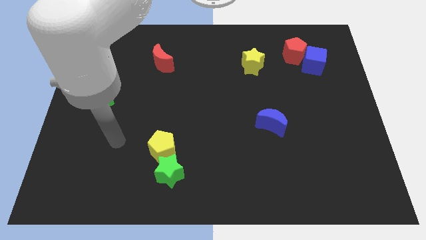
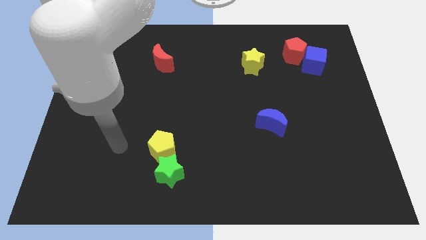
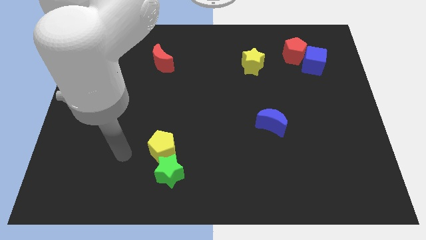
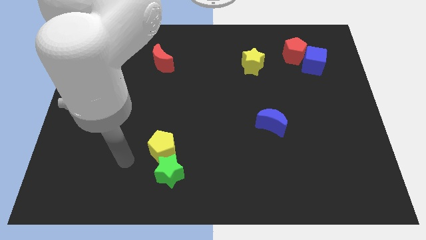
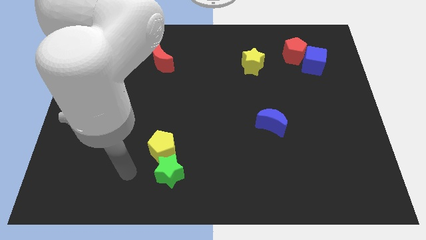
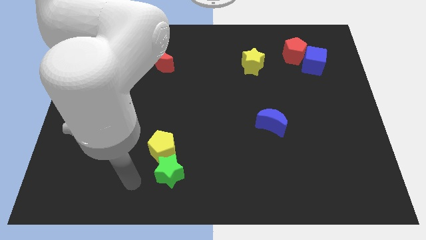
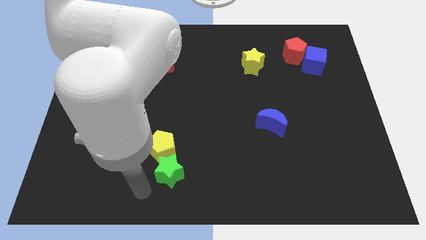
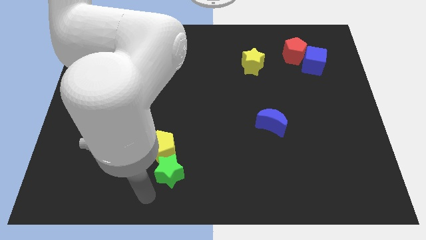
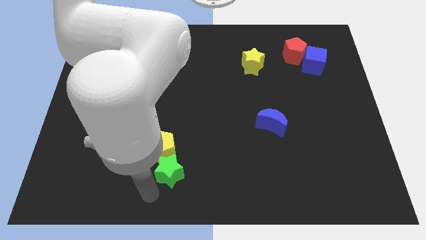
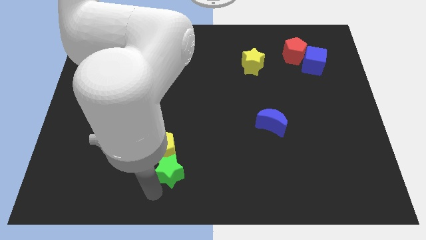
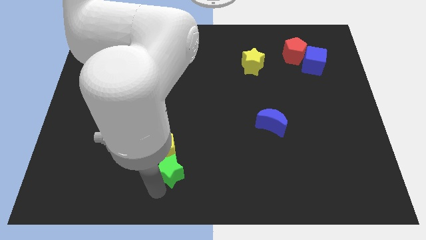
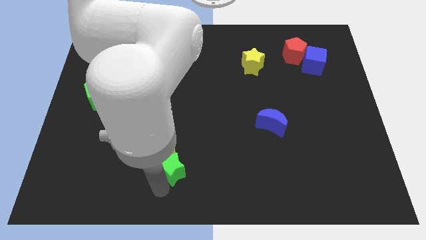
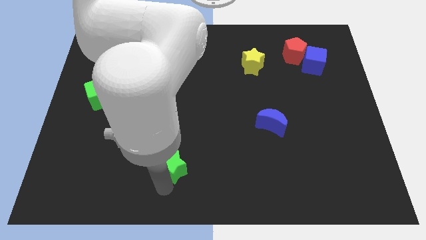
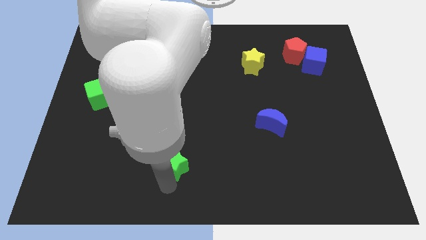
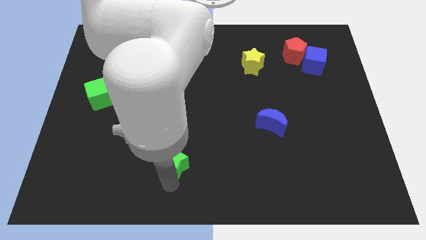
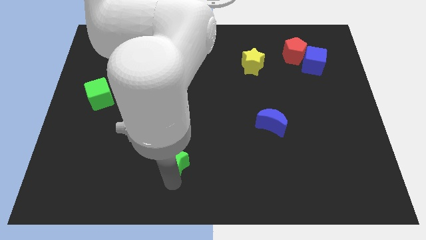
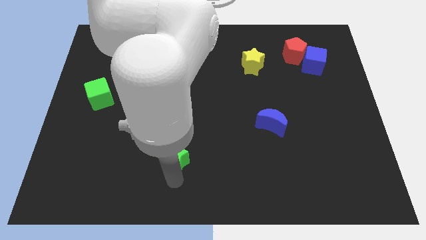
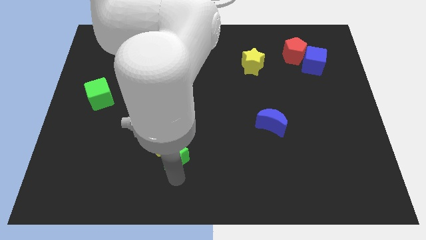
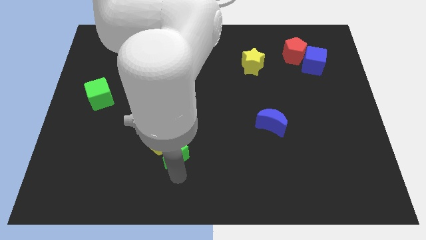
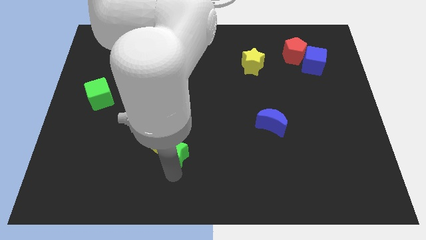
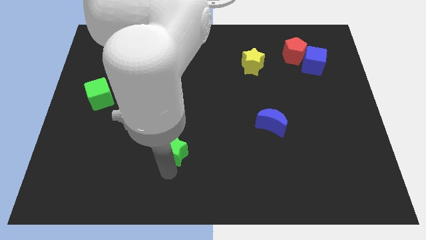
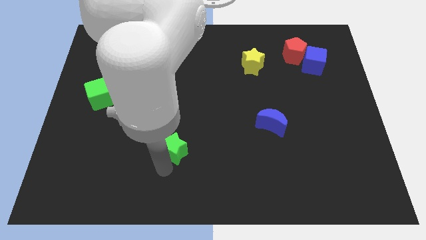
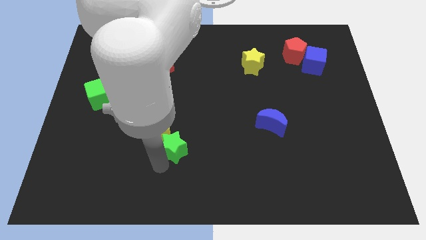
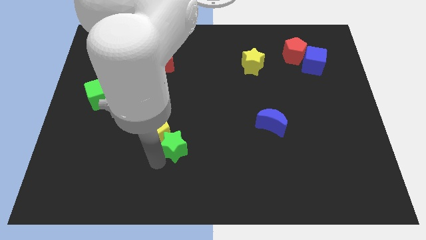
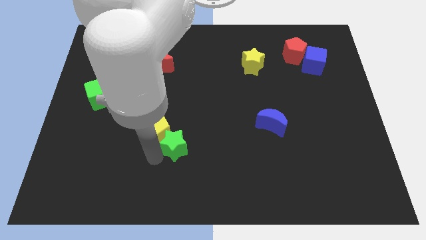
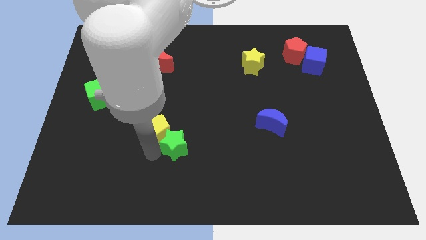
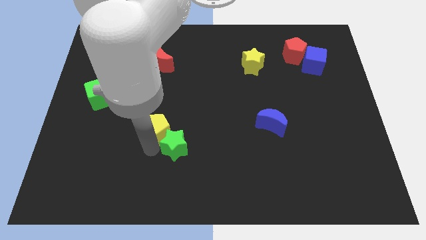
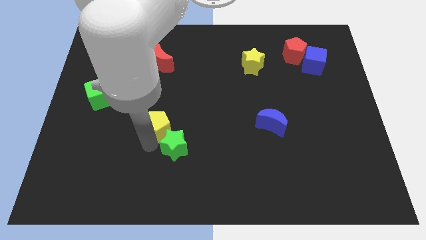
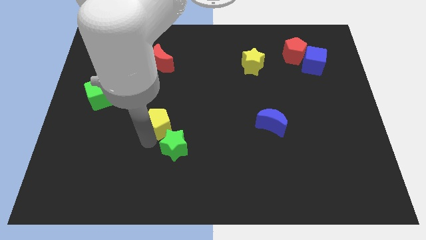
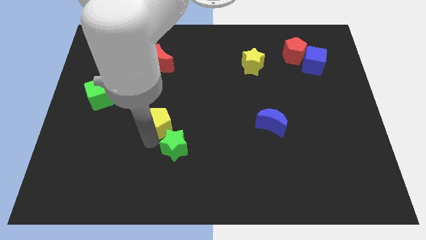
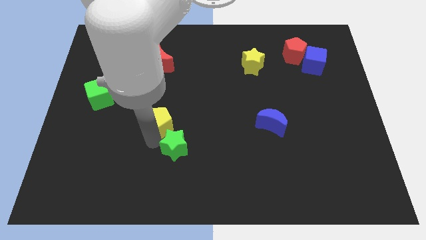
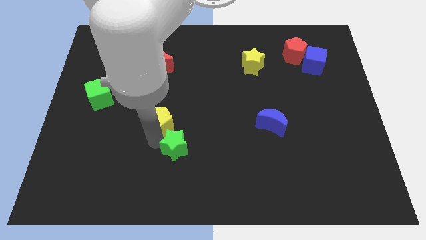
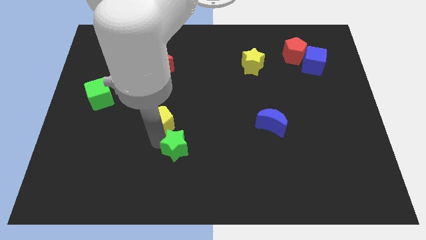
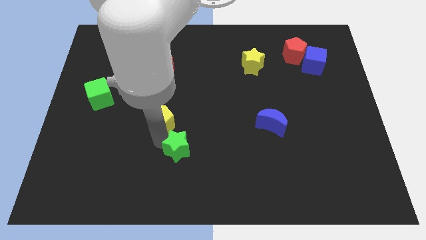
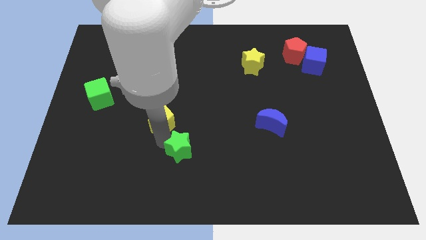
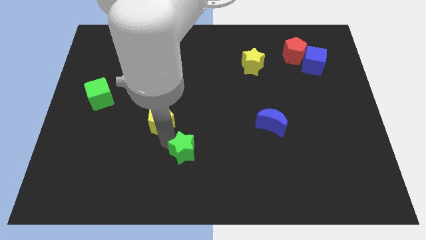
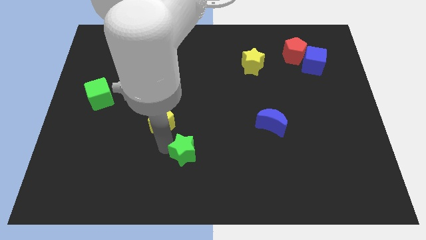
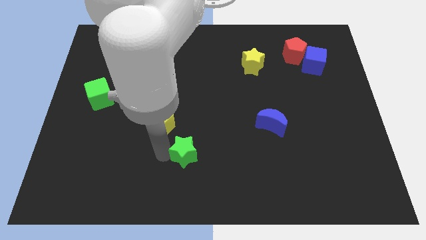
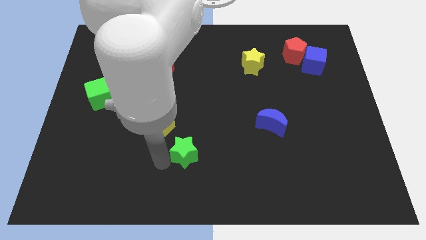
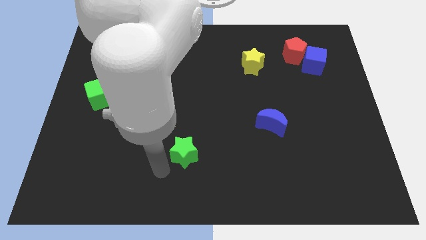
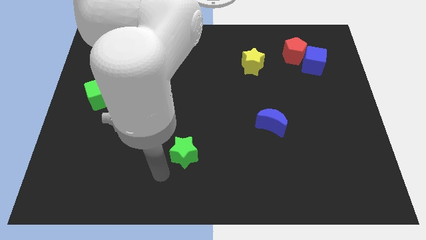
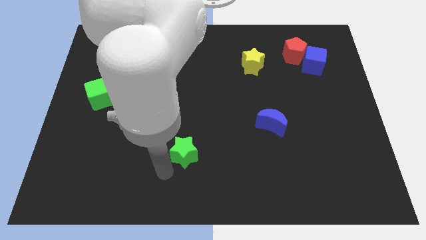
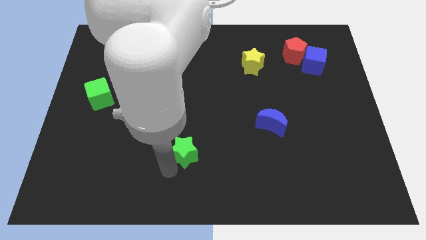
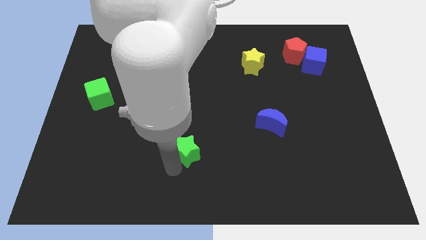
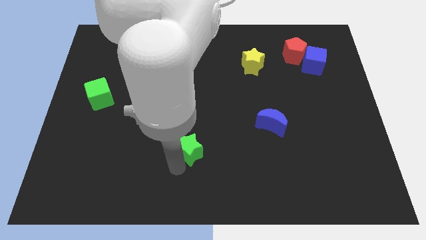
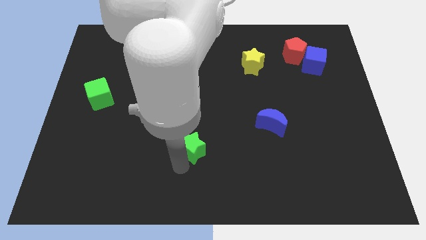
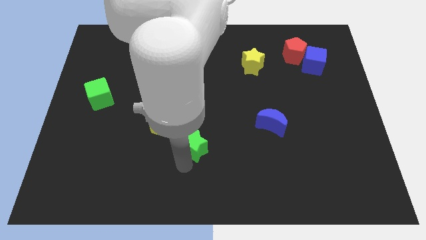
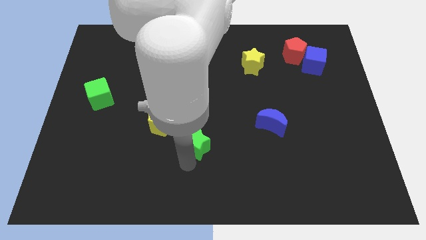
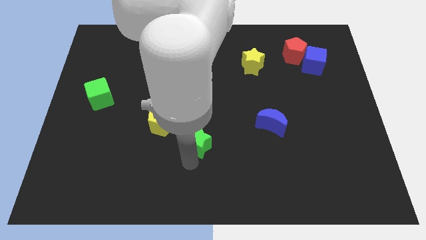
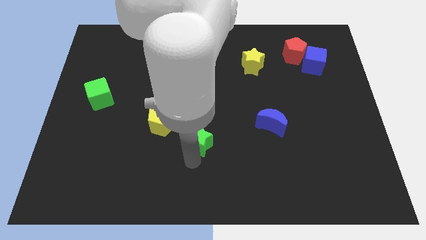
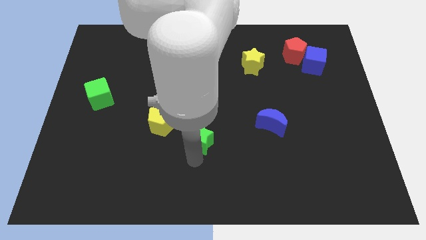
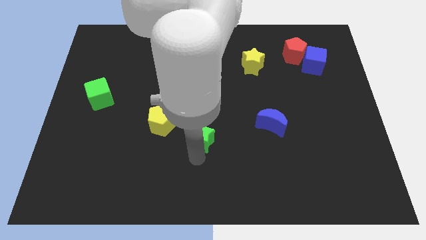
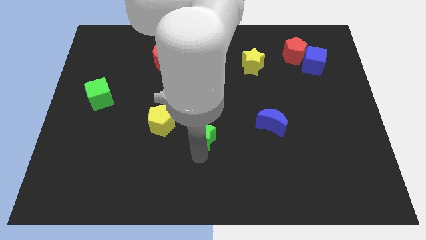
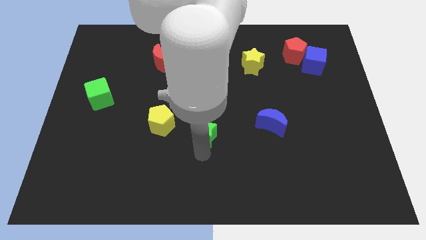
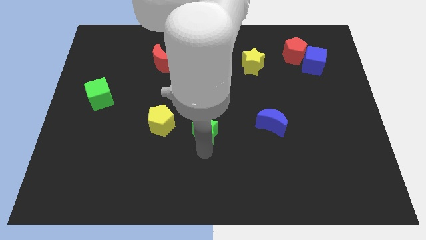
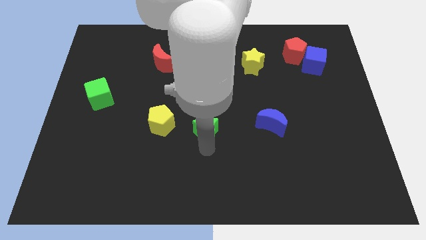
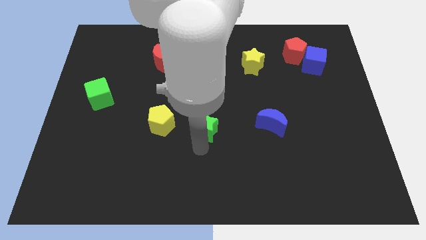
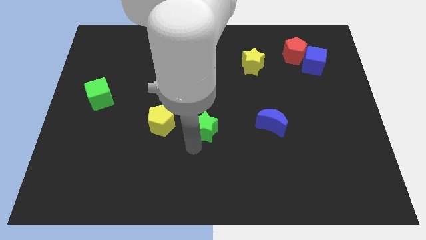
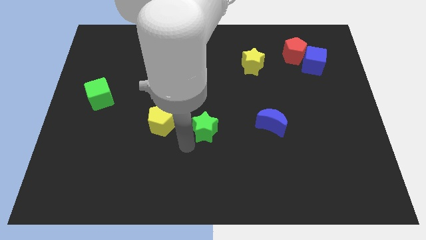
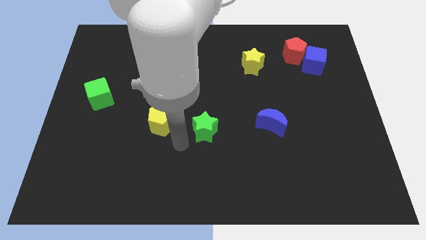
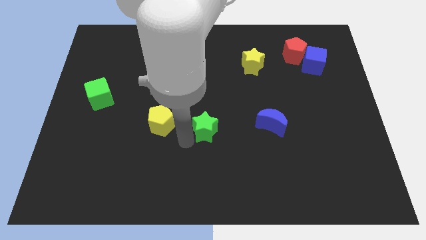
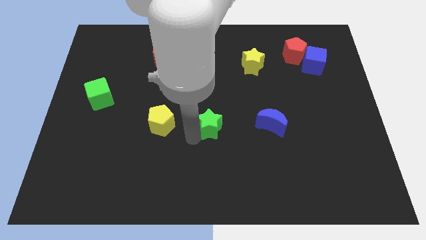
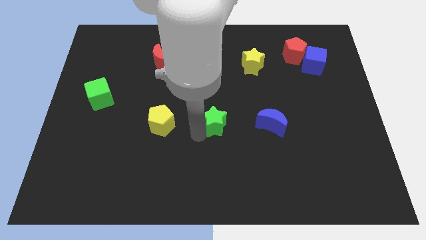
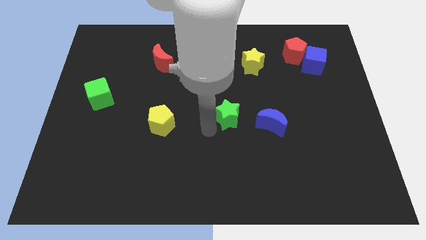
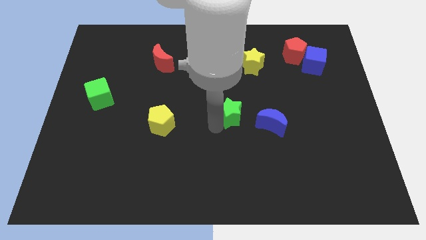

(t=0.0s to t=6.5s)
push the green star up and to the right diagonally

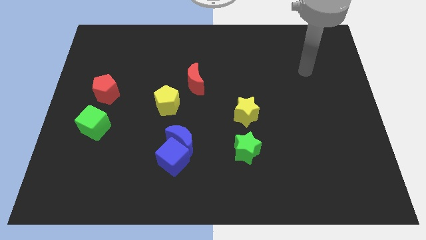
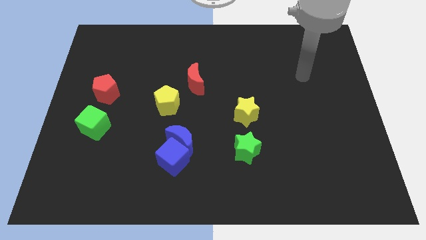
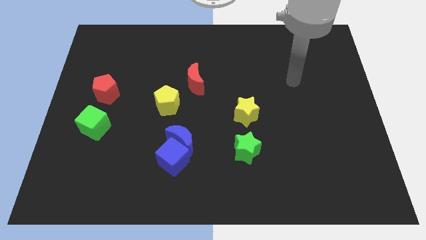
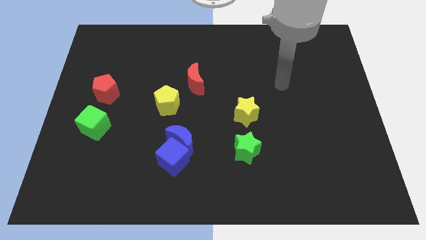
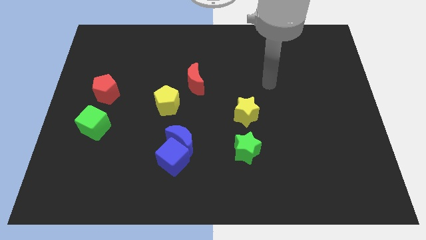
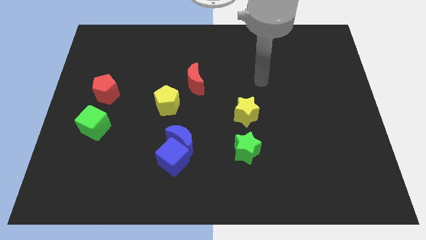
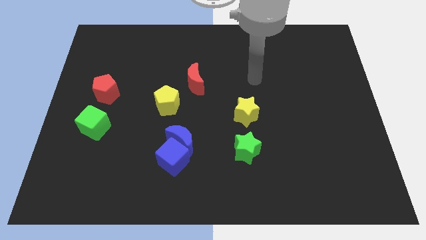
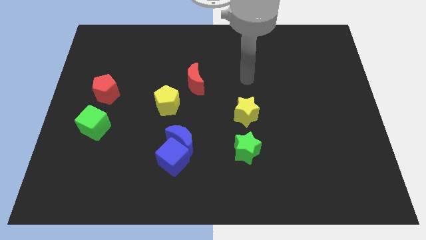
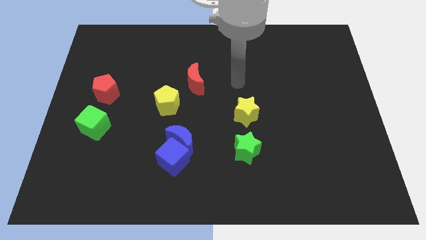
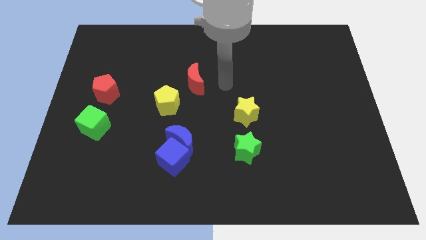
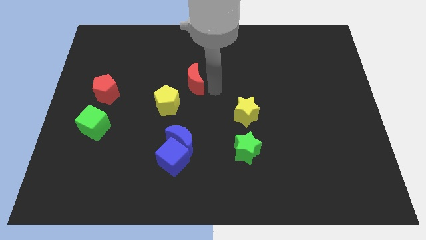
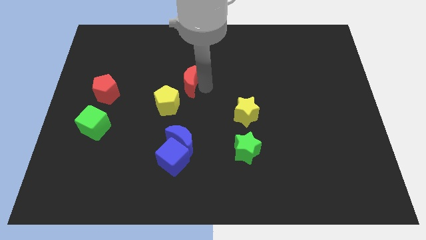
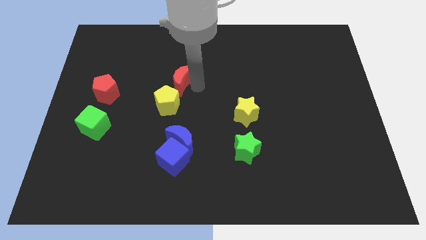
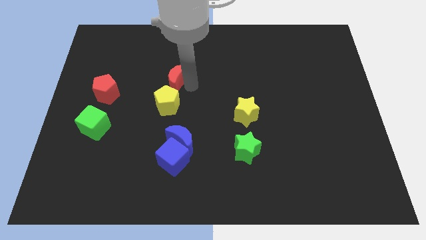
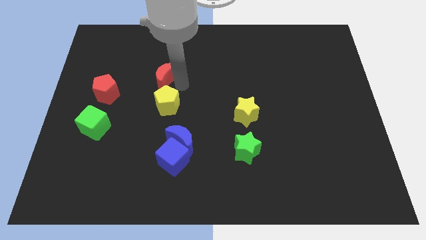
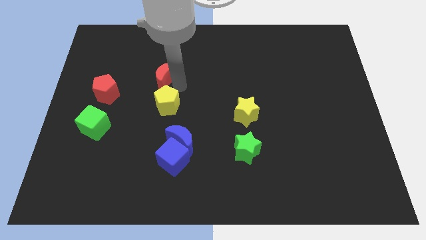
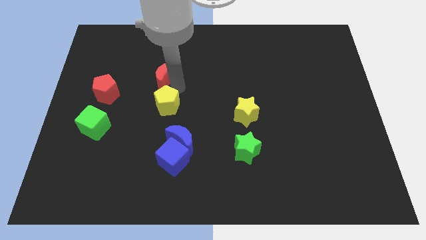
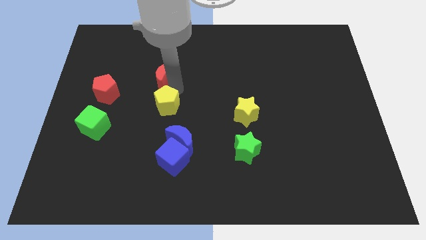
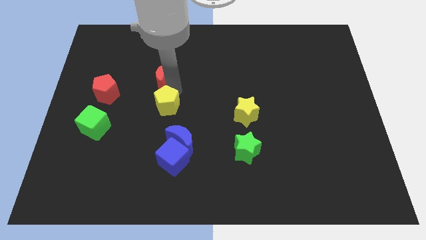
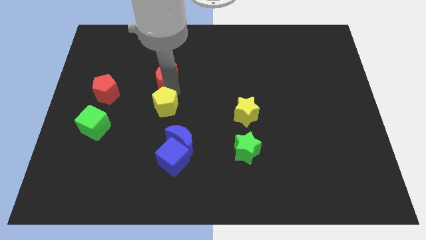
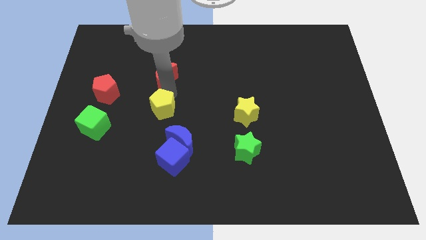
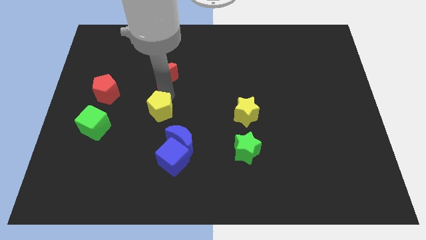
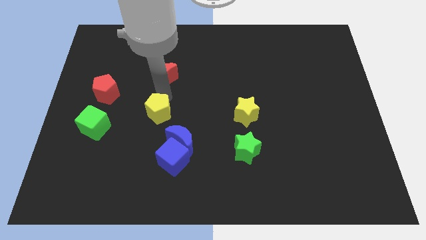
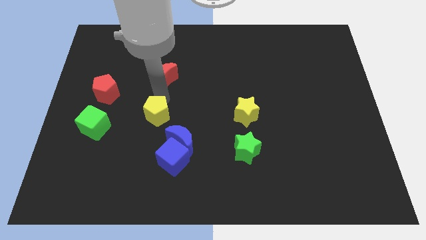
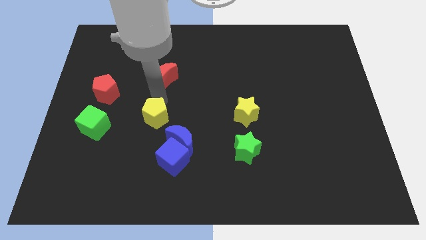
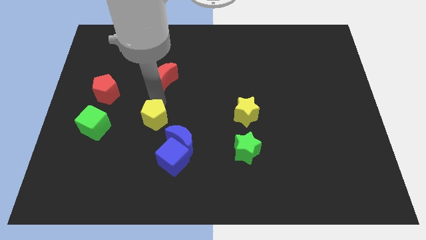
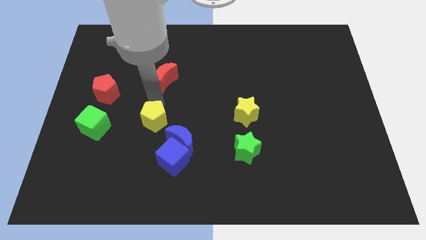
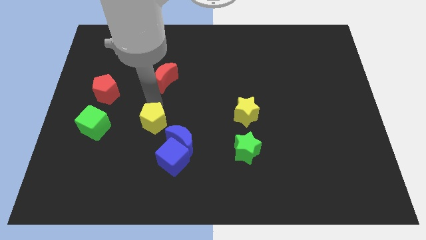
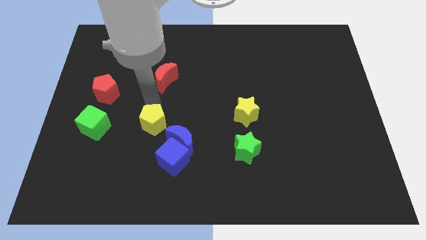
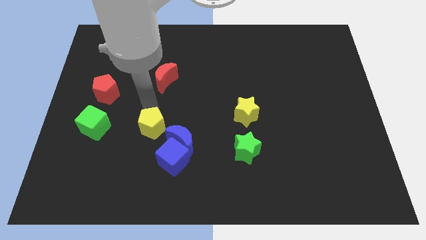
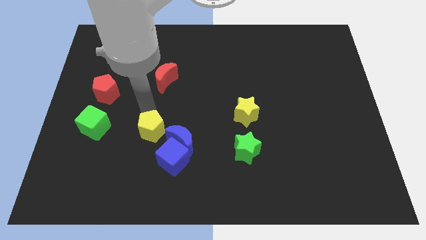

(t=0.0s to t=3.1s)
slide the yellow pentagon downwards a little
